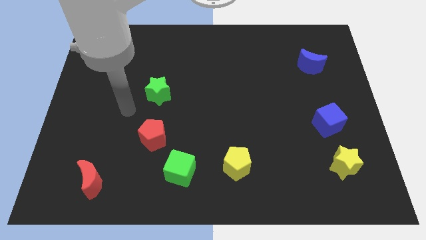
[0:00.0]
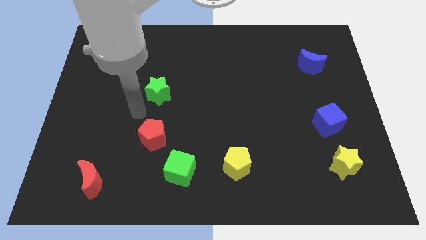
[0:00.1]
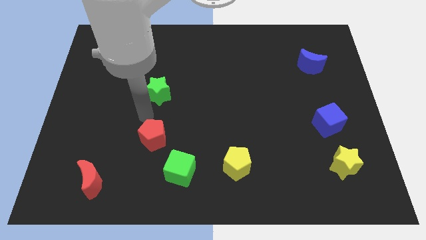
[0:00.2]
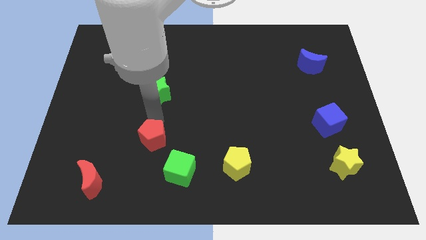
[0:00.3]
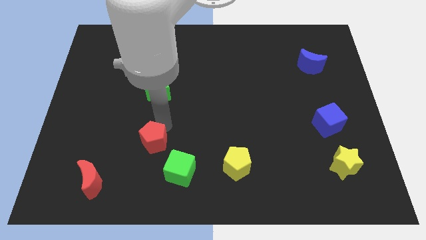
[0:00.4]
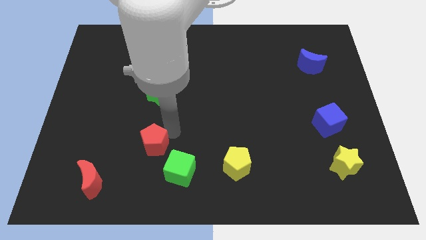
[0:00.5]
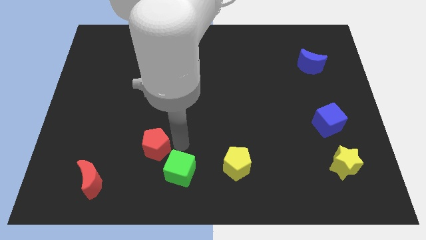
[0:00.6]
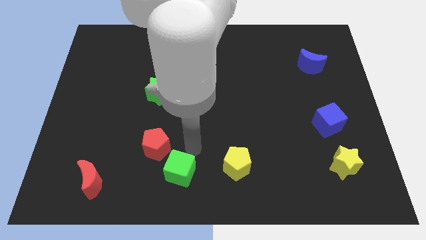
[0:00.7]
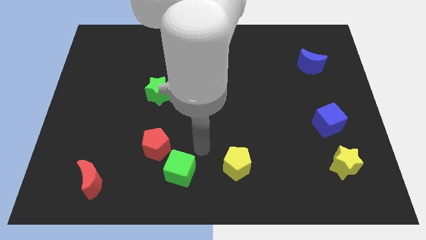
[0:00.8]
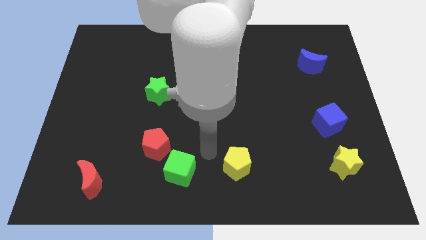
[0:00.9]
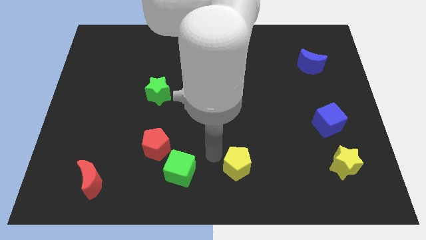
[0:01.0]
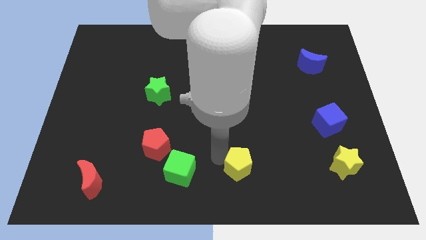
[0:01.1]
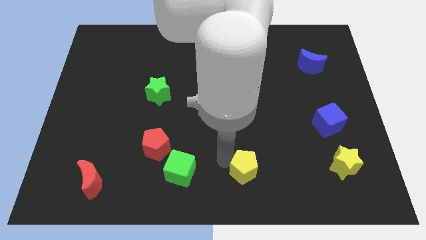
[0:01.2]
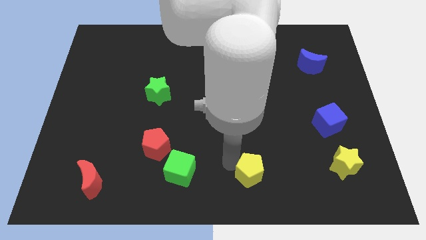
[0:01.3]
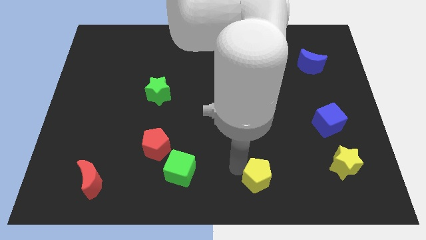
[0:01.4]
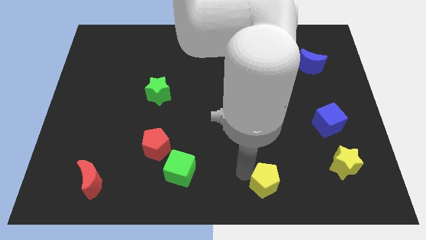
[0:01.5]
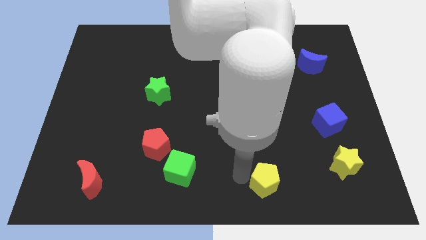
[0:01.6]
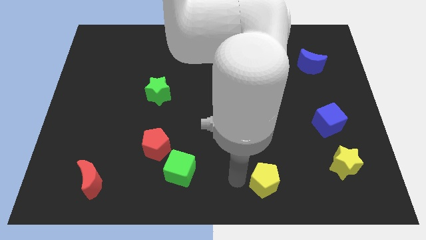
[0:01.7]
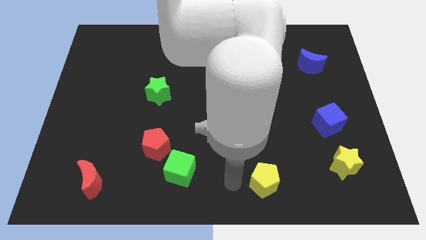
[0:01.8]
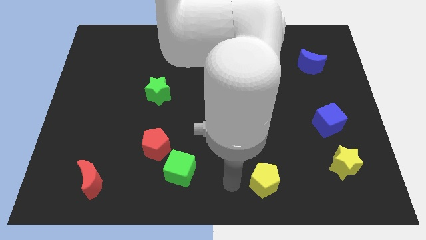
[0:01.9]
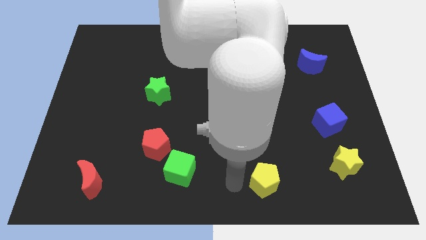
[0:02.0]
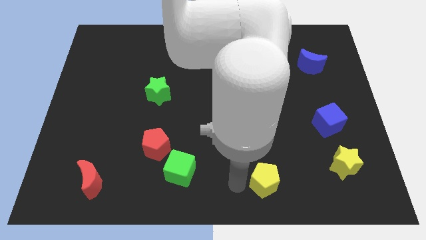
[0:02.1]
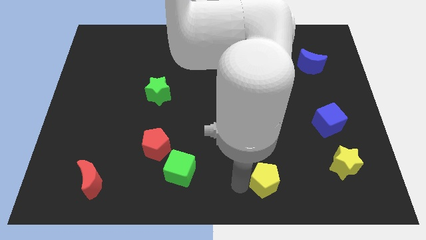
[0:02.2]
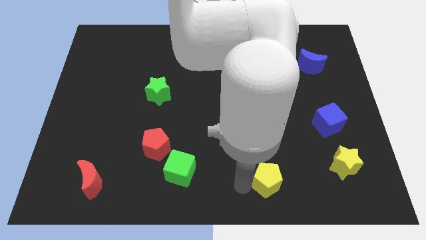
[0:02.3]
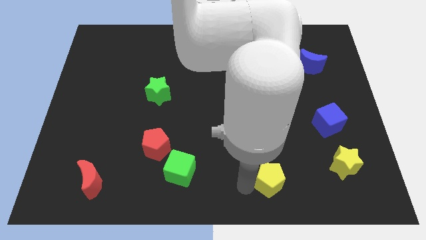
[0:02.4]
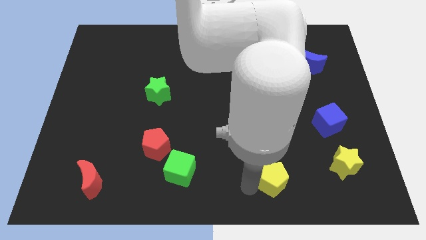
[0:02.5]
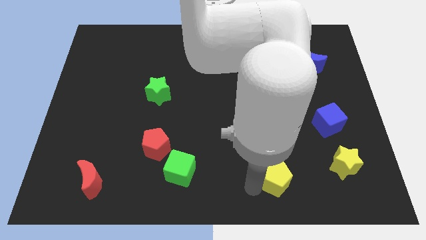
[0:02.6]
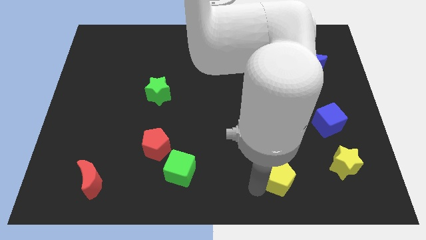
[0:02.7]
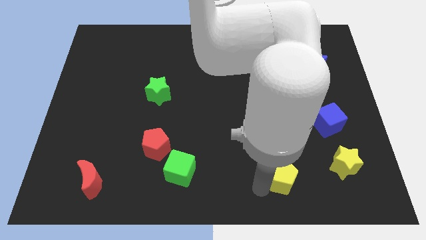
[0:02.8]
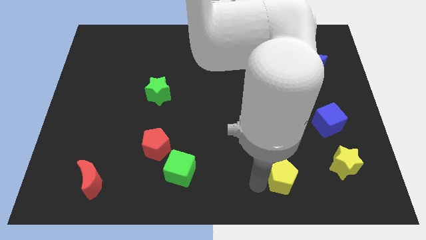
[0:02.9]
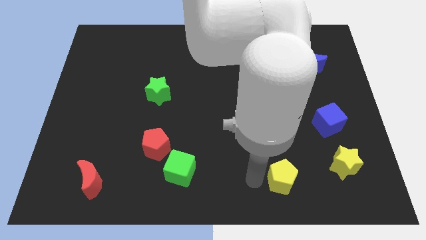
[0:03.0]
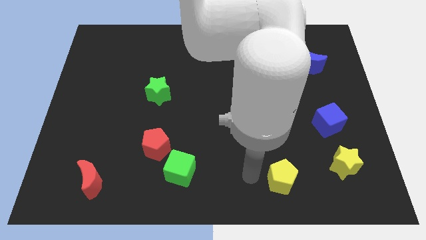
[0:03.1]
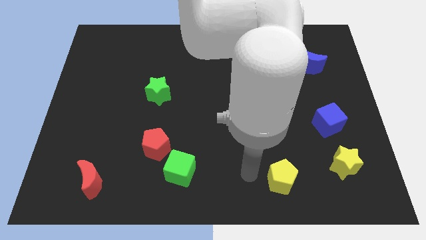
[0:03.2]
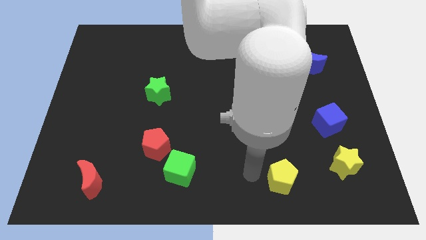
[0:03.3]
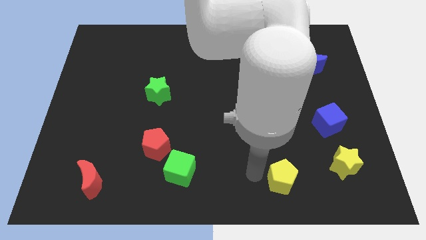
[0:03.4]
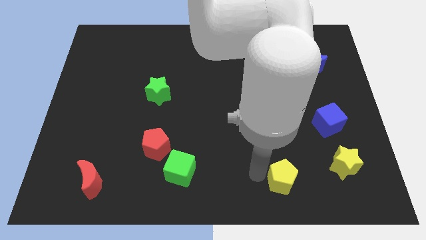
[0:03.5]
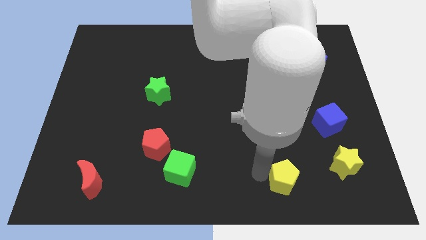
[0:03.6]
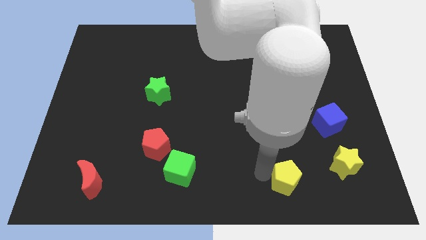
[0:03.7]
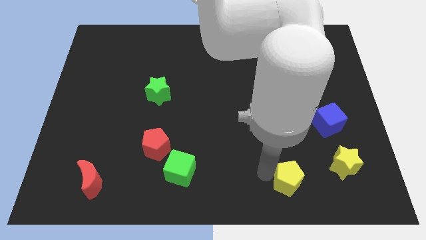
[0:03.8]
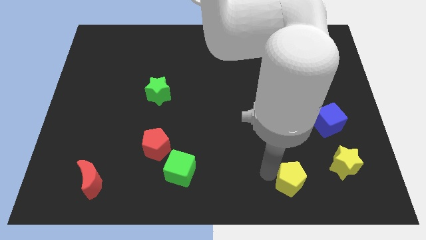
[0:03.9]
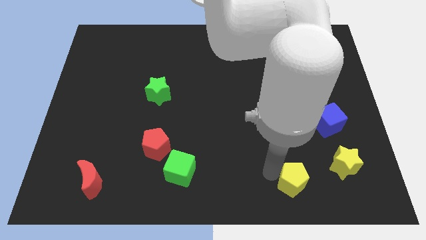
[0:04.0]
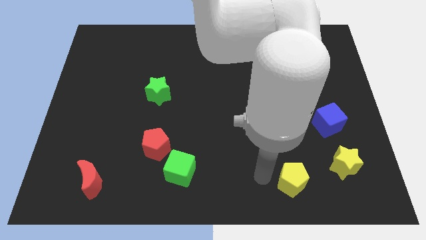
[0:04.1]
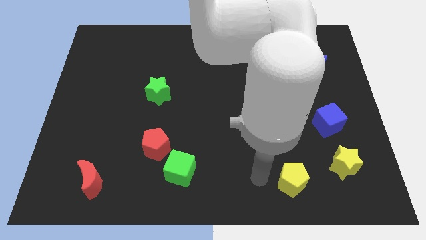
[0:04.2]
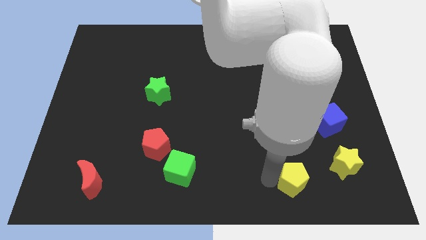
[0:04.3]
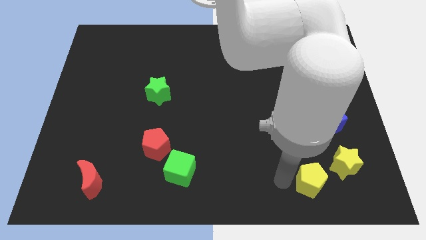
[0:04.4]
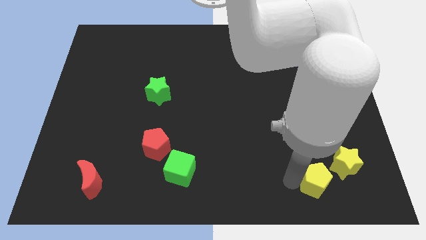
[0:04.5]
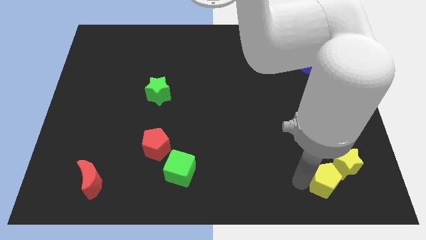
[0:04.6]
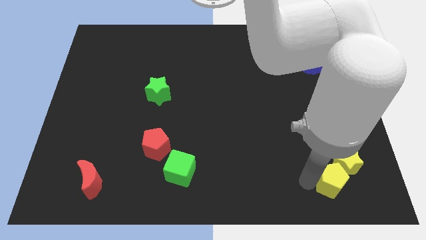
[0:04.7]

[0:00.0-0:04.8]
move the yellow pentagon to the bottom side of the blue cube

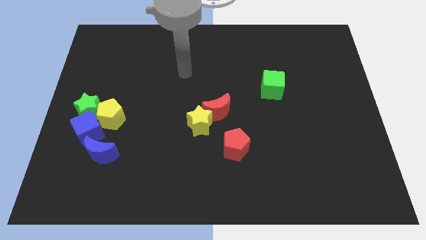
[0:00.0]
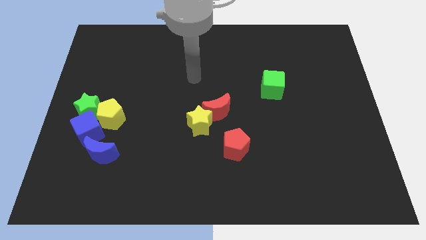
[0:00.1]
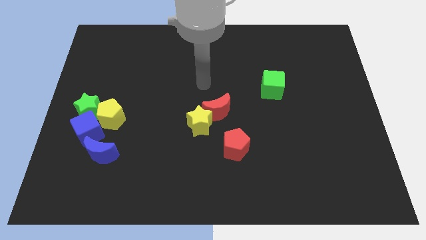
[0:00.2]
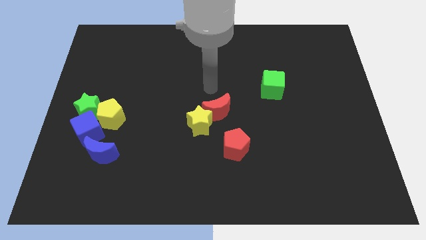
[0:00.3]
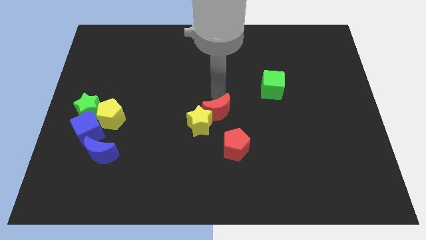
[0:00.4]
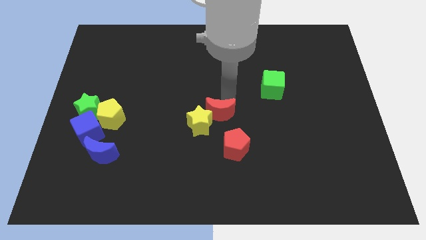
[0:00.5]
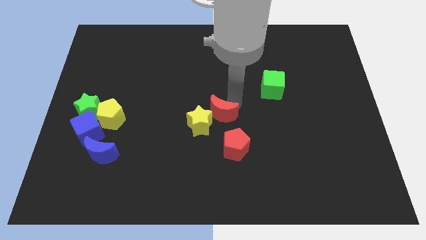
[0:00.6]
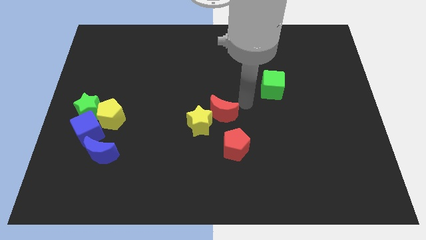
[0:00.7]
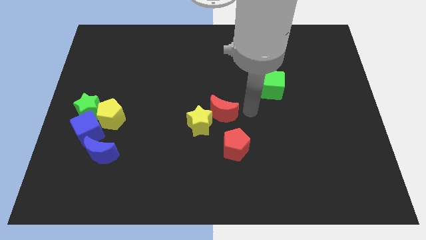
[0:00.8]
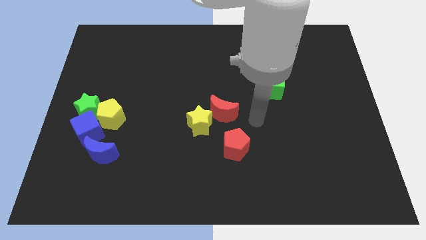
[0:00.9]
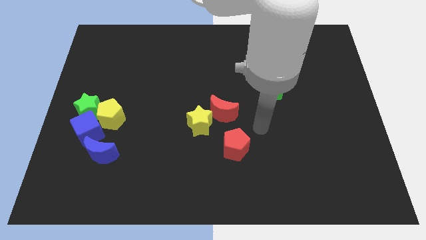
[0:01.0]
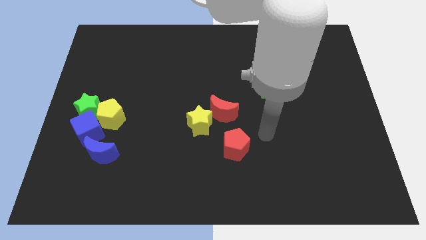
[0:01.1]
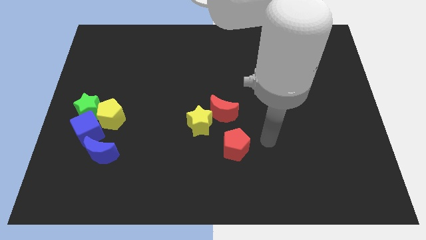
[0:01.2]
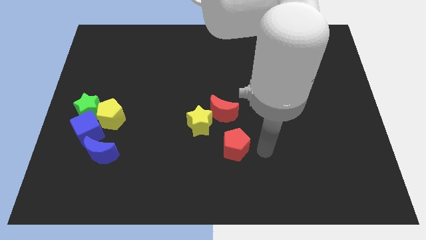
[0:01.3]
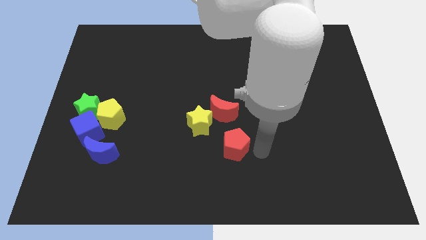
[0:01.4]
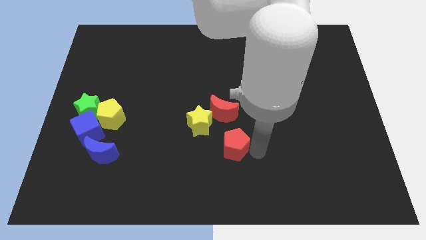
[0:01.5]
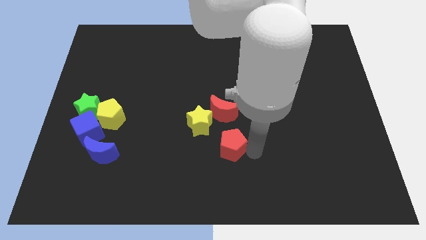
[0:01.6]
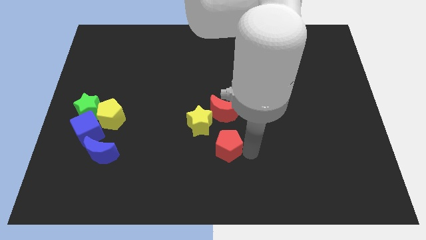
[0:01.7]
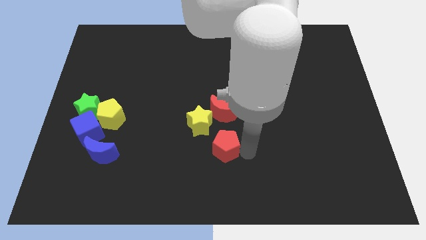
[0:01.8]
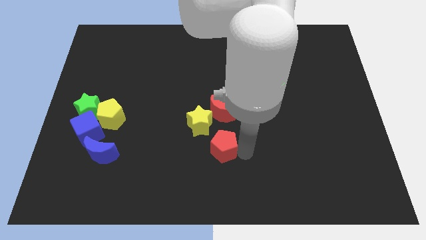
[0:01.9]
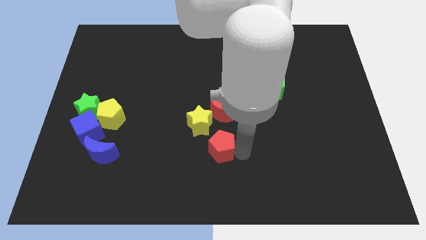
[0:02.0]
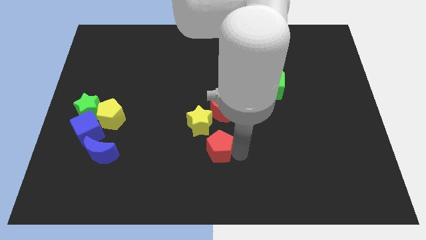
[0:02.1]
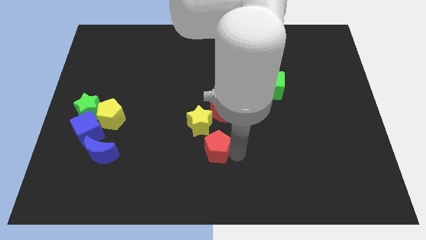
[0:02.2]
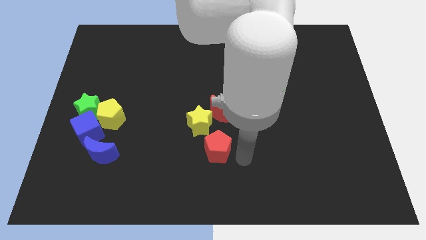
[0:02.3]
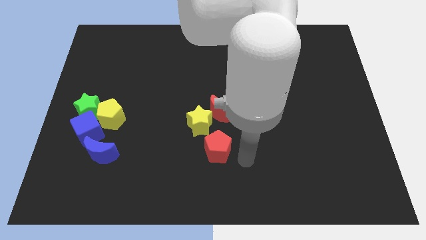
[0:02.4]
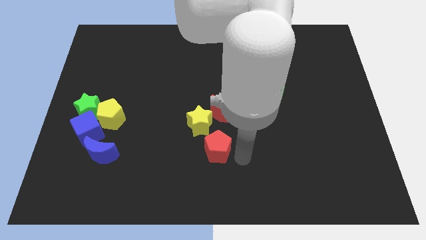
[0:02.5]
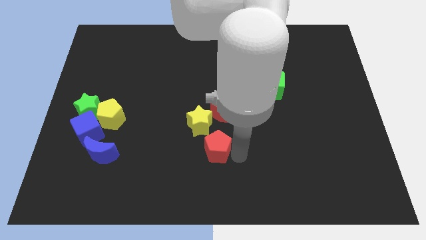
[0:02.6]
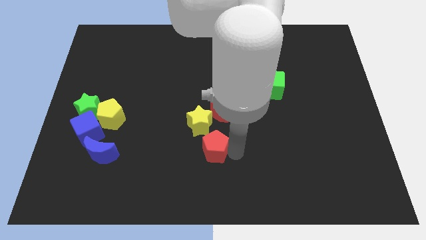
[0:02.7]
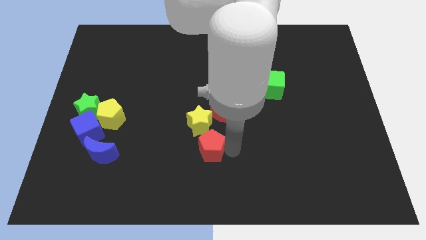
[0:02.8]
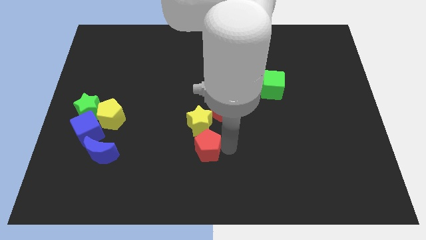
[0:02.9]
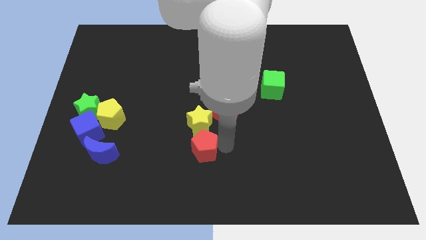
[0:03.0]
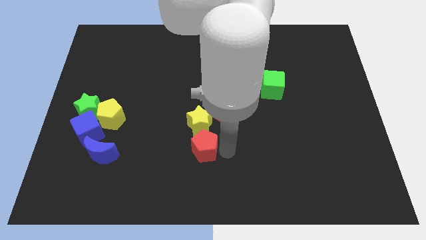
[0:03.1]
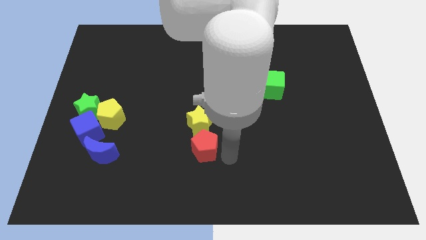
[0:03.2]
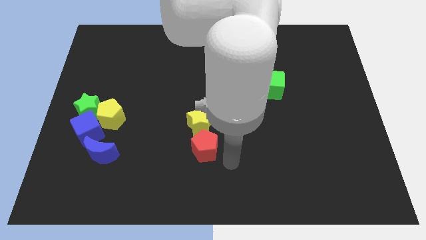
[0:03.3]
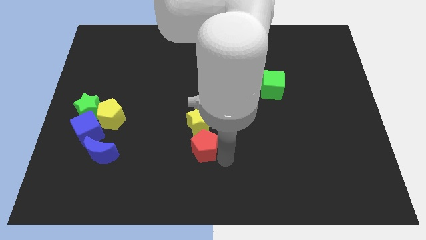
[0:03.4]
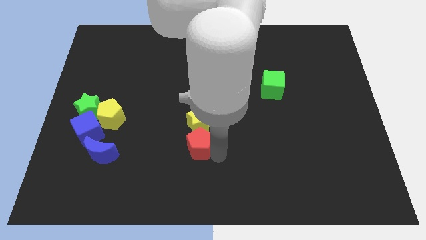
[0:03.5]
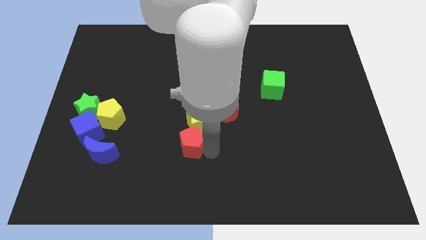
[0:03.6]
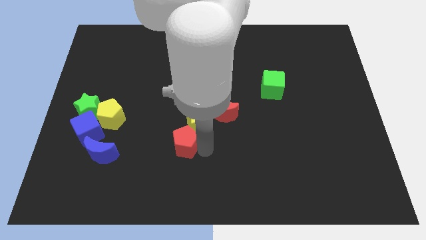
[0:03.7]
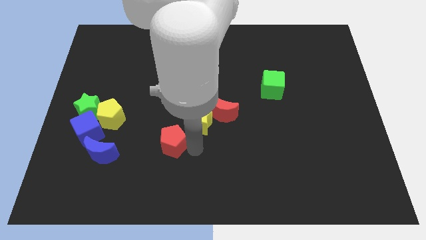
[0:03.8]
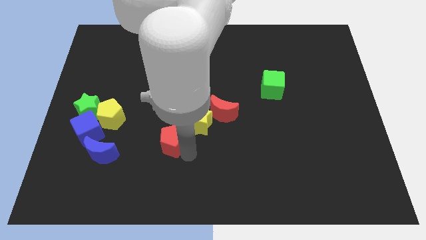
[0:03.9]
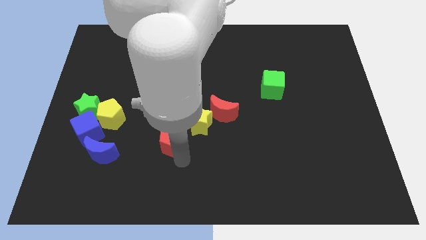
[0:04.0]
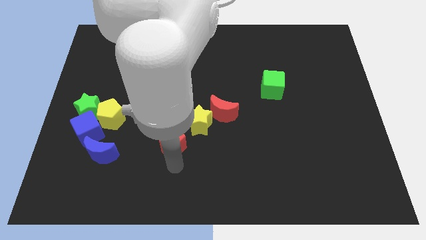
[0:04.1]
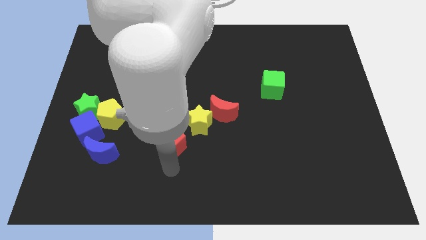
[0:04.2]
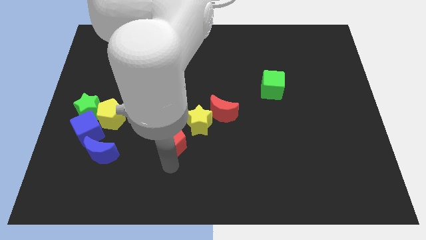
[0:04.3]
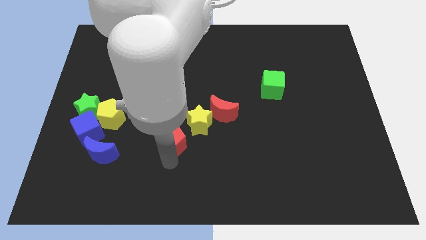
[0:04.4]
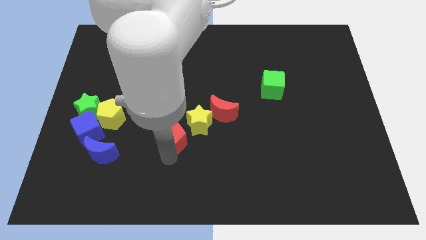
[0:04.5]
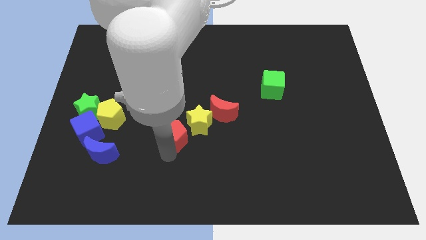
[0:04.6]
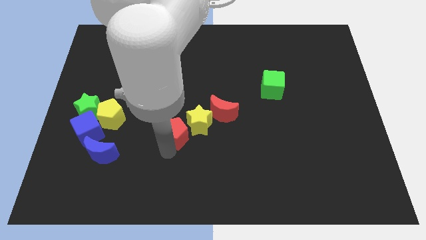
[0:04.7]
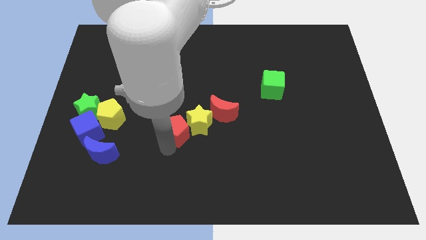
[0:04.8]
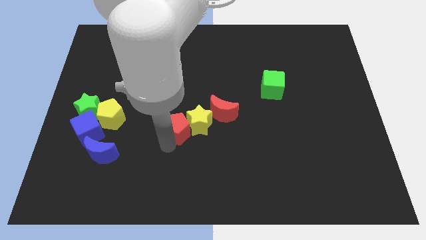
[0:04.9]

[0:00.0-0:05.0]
push the red pentagon to the left of the red moon
